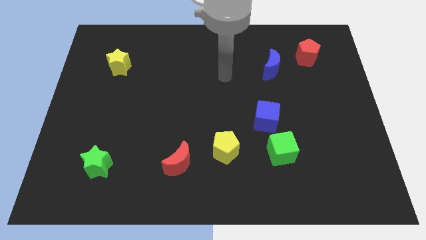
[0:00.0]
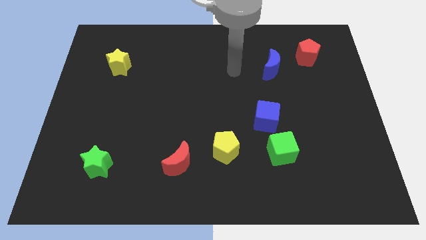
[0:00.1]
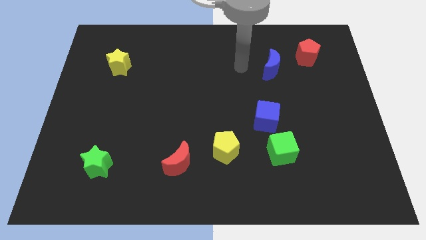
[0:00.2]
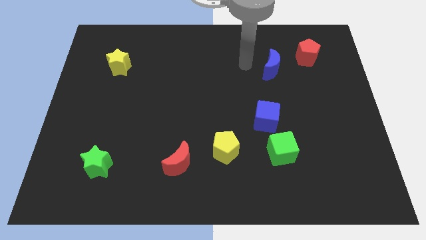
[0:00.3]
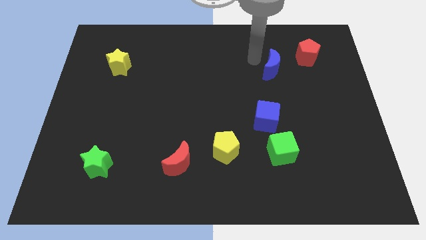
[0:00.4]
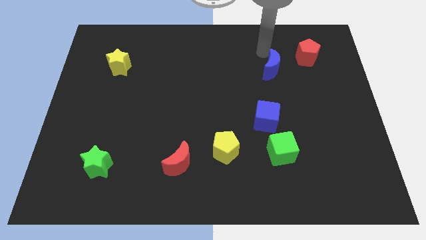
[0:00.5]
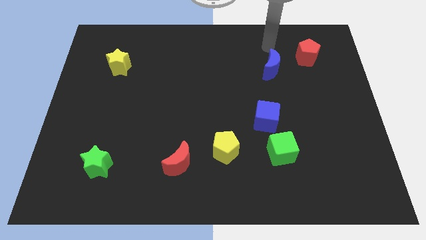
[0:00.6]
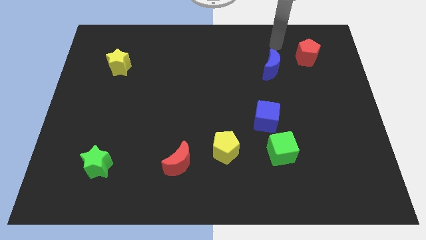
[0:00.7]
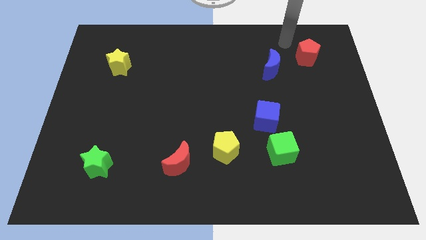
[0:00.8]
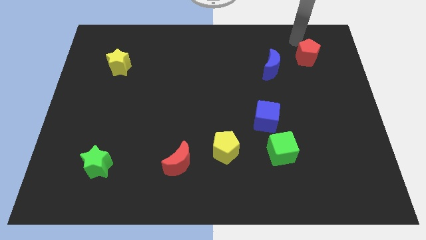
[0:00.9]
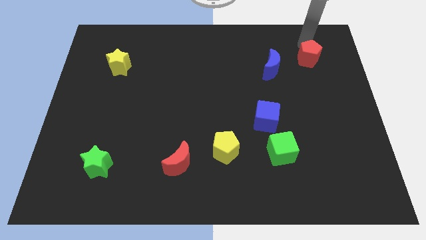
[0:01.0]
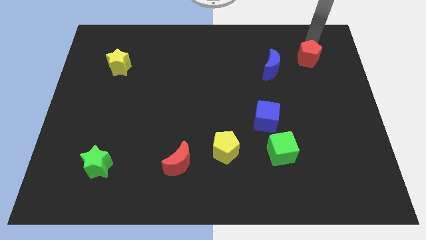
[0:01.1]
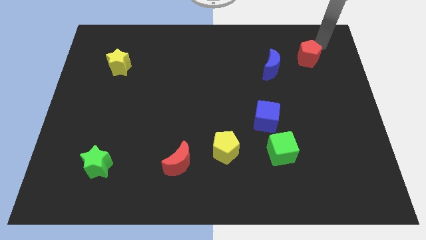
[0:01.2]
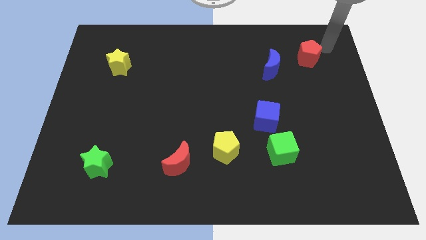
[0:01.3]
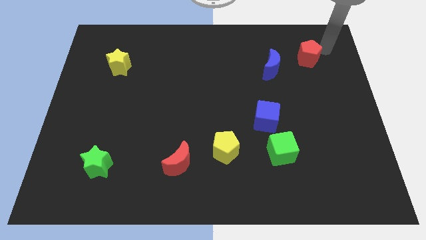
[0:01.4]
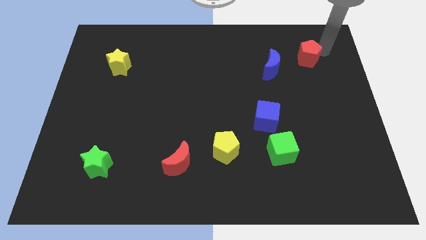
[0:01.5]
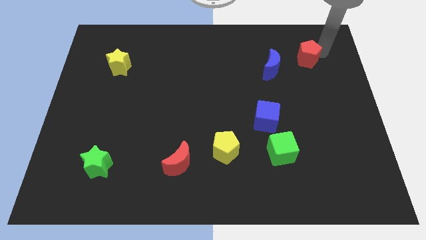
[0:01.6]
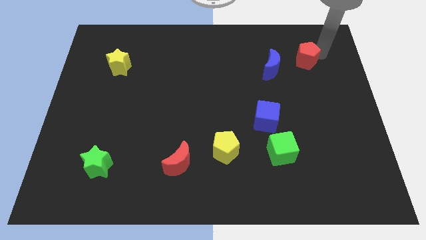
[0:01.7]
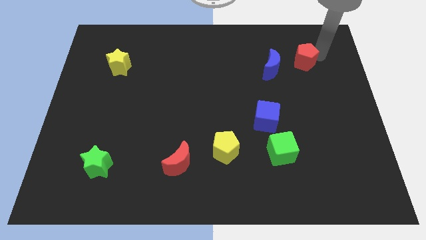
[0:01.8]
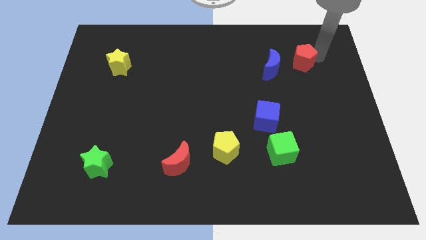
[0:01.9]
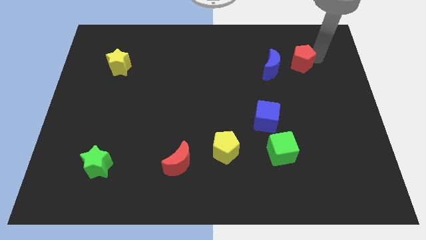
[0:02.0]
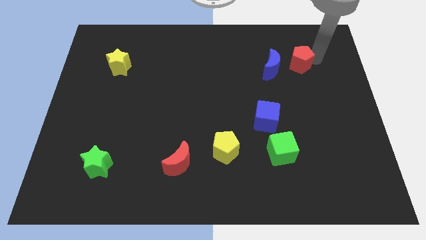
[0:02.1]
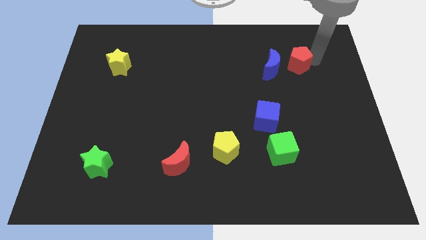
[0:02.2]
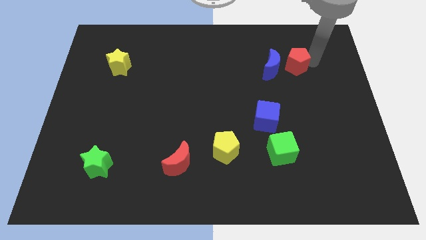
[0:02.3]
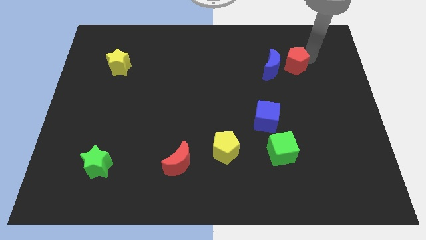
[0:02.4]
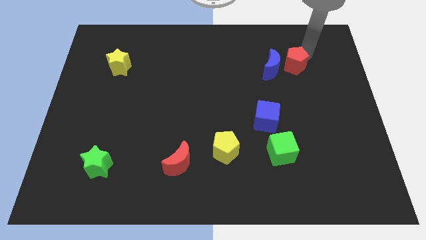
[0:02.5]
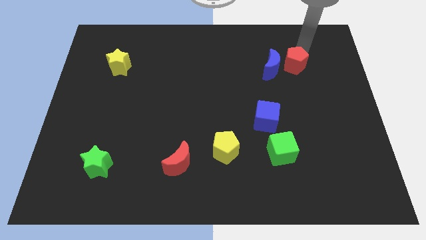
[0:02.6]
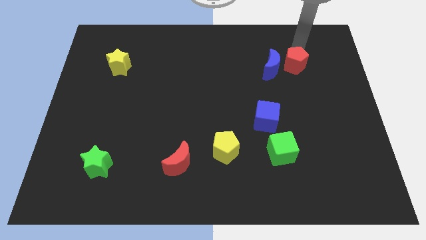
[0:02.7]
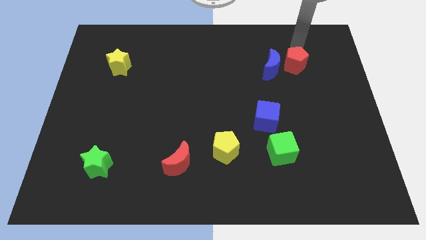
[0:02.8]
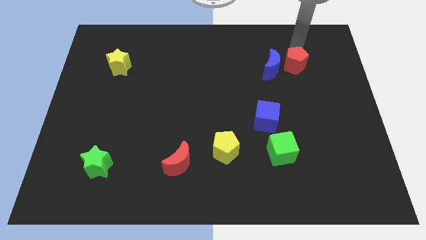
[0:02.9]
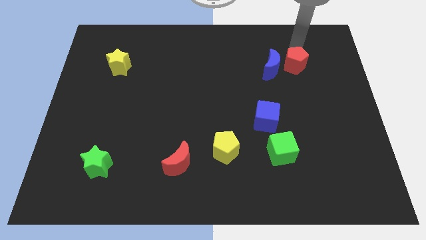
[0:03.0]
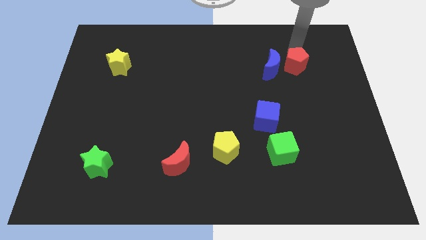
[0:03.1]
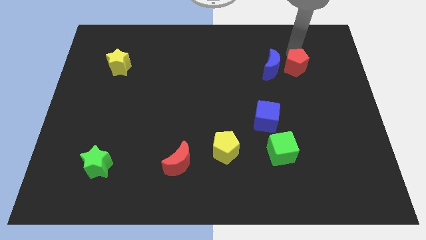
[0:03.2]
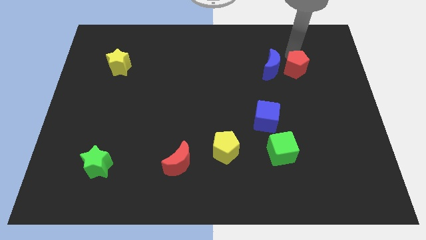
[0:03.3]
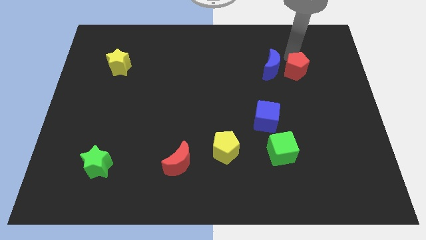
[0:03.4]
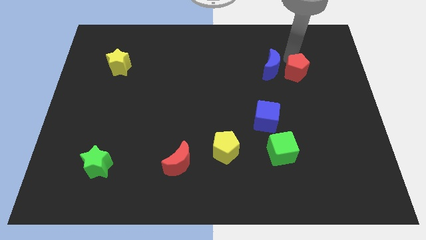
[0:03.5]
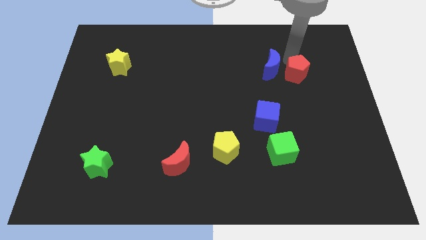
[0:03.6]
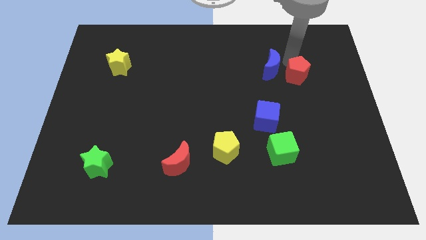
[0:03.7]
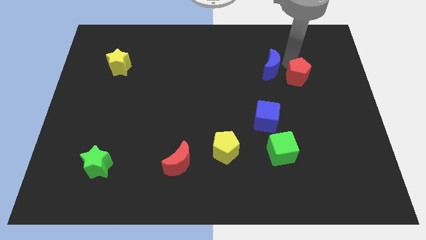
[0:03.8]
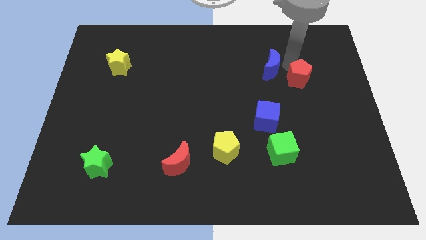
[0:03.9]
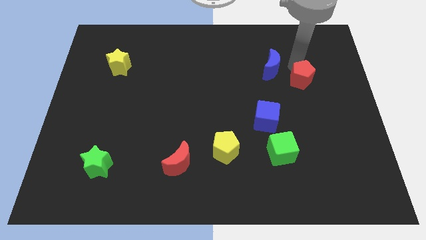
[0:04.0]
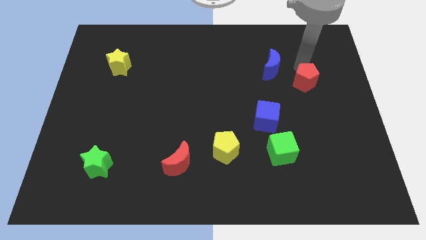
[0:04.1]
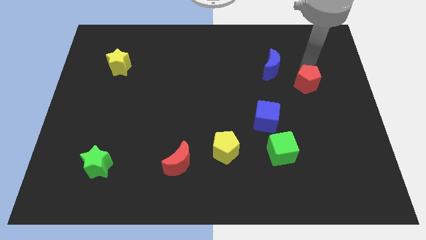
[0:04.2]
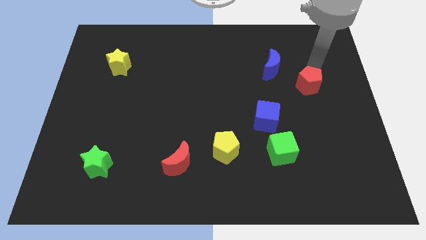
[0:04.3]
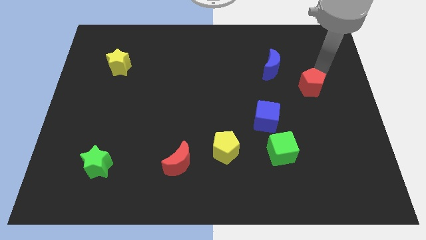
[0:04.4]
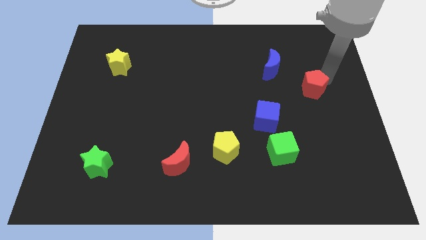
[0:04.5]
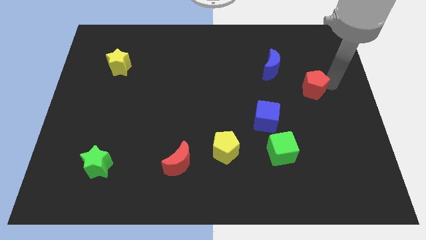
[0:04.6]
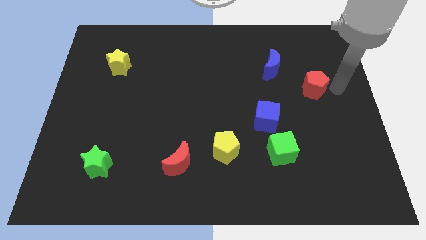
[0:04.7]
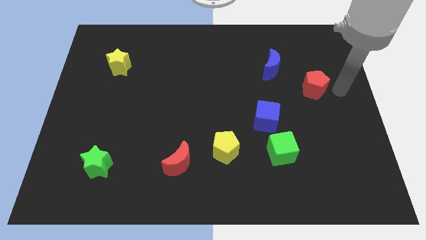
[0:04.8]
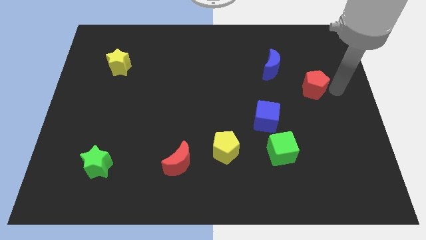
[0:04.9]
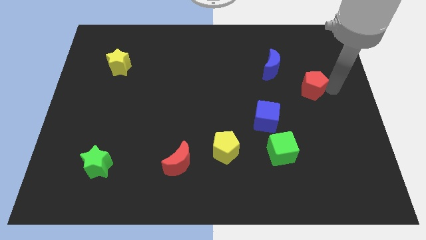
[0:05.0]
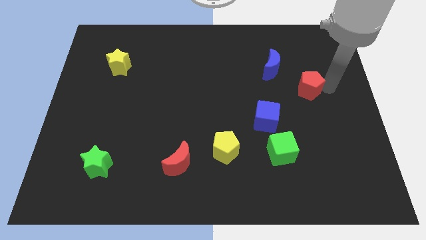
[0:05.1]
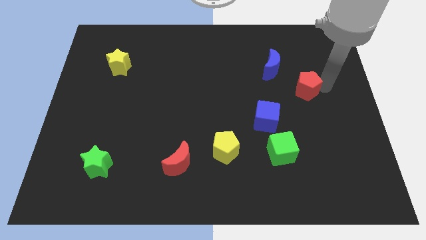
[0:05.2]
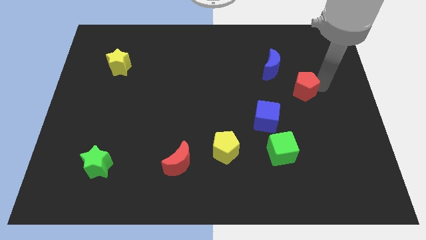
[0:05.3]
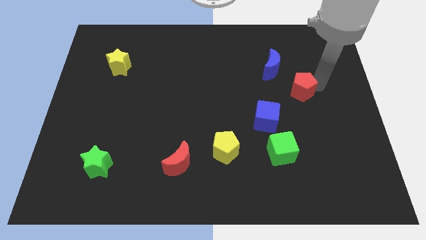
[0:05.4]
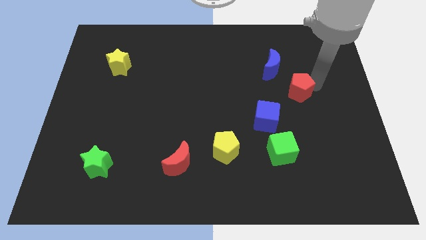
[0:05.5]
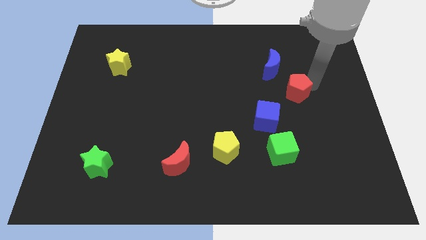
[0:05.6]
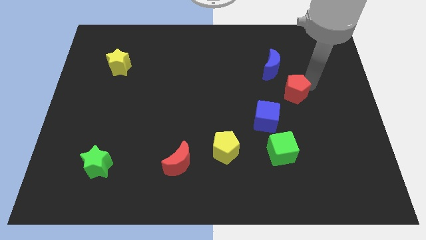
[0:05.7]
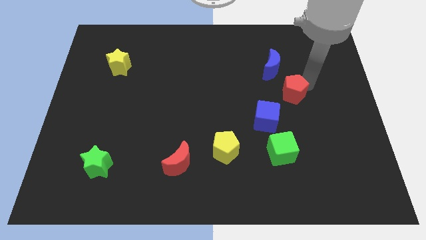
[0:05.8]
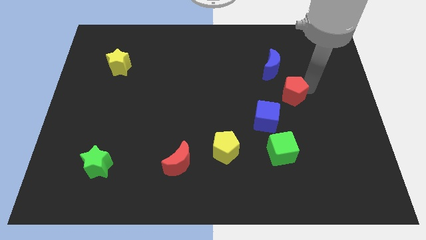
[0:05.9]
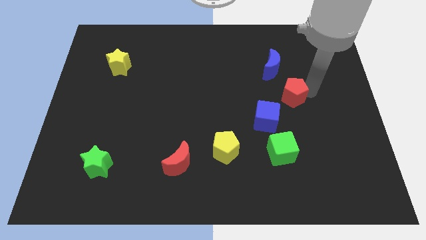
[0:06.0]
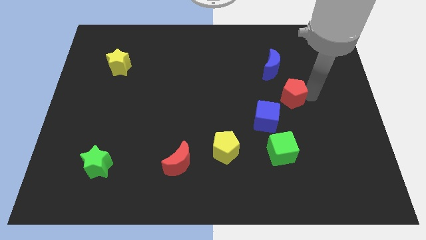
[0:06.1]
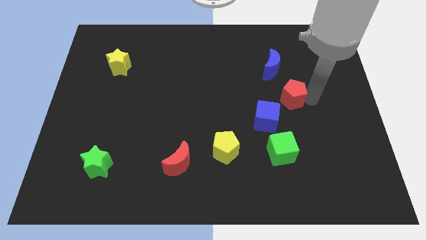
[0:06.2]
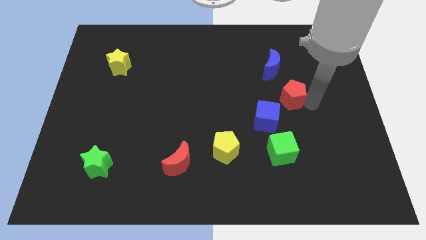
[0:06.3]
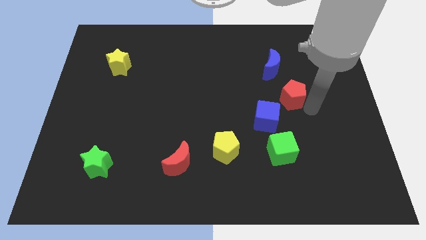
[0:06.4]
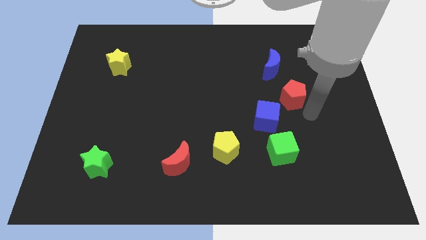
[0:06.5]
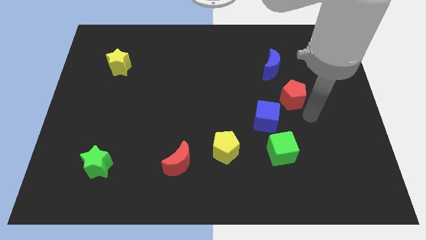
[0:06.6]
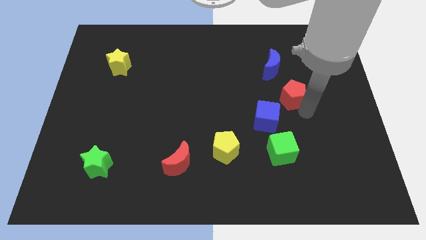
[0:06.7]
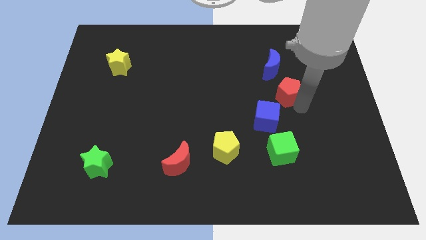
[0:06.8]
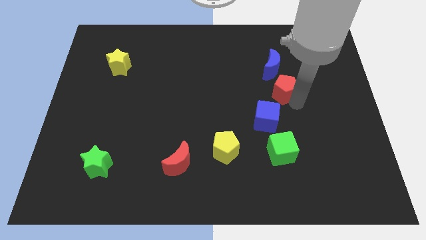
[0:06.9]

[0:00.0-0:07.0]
move the red pentagon to the top side of the blue cube

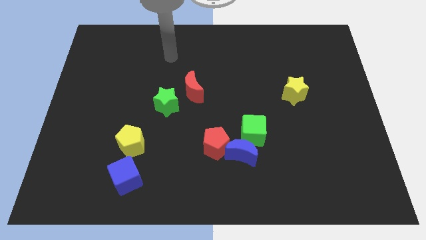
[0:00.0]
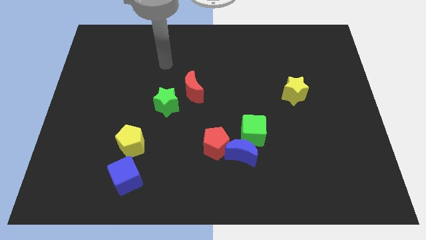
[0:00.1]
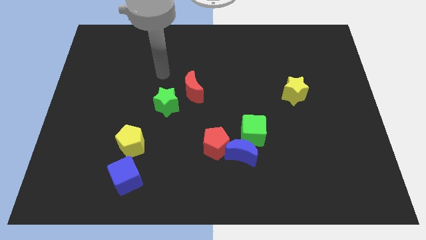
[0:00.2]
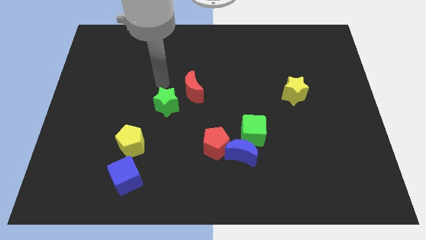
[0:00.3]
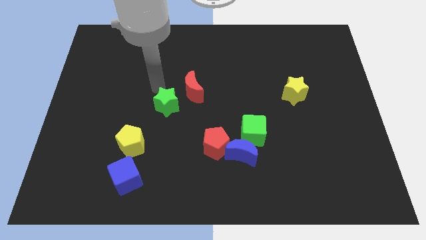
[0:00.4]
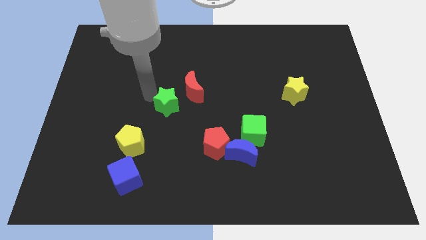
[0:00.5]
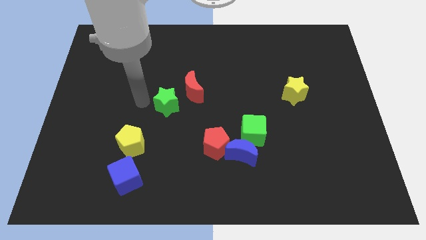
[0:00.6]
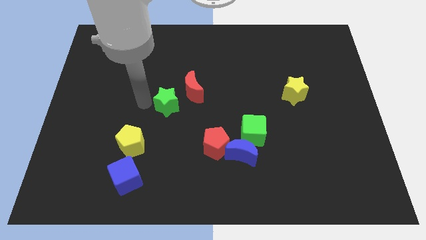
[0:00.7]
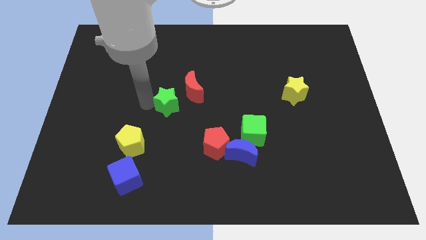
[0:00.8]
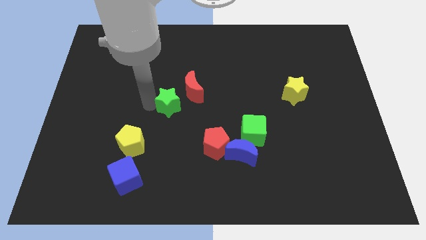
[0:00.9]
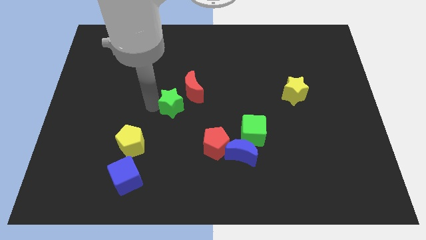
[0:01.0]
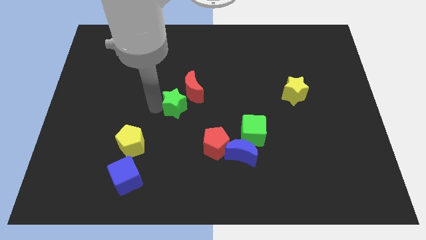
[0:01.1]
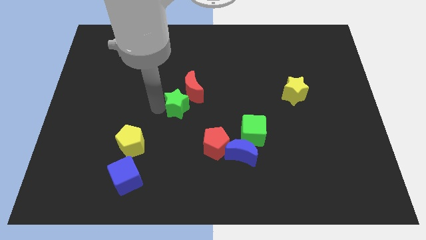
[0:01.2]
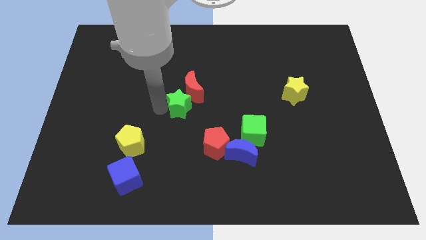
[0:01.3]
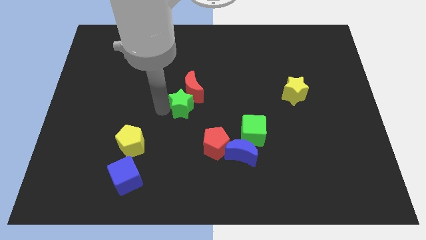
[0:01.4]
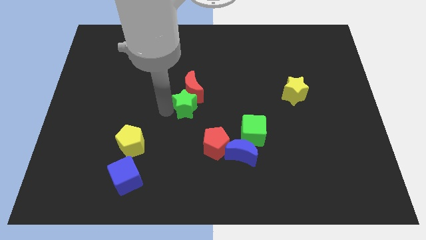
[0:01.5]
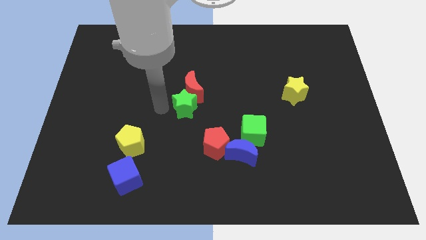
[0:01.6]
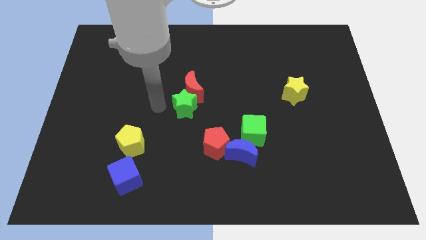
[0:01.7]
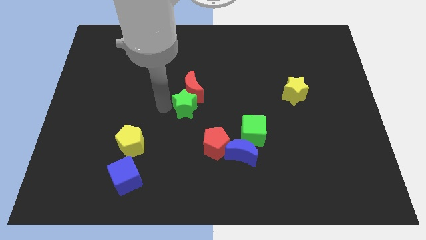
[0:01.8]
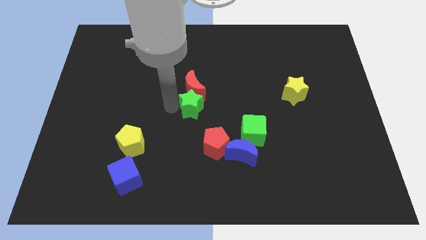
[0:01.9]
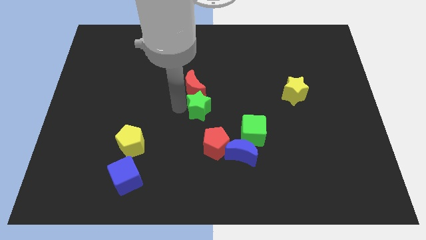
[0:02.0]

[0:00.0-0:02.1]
put the green star above the red pentagon
